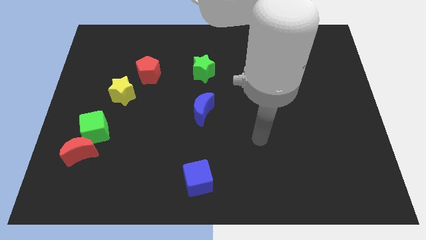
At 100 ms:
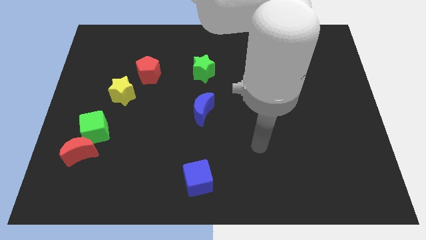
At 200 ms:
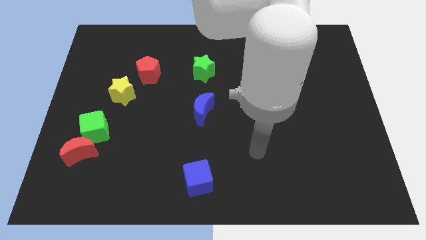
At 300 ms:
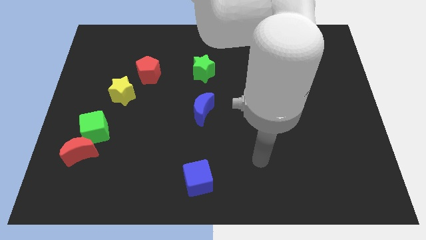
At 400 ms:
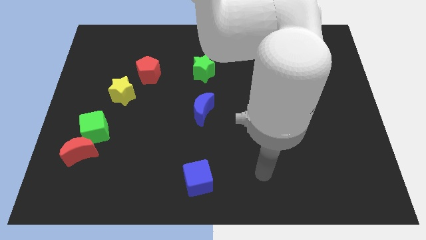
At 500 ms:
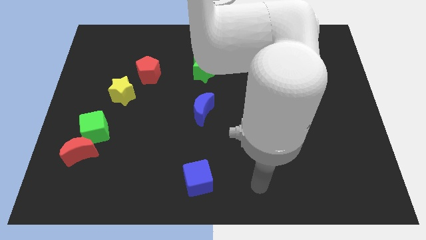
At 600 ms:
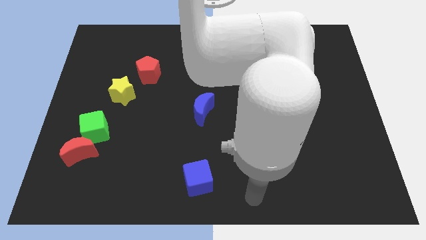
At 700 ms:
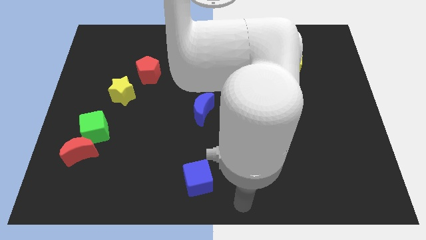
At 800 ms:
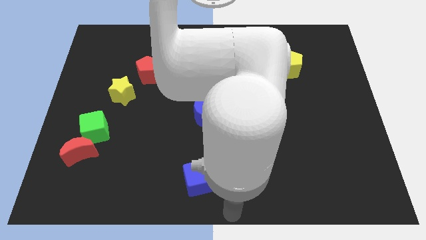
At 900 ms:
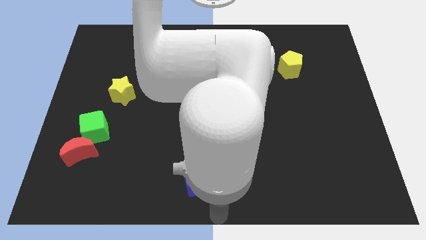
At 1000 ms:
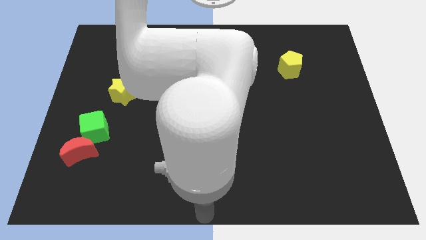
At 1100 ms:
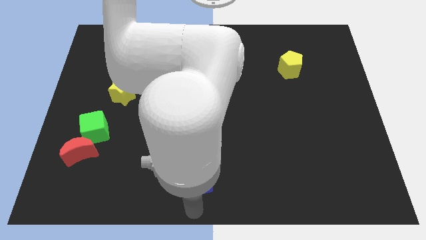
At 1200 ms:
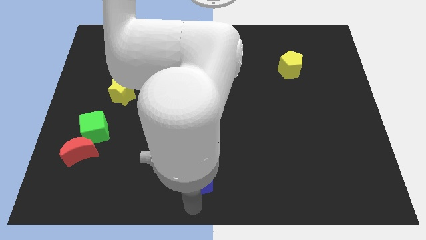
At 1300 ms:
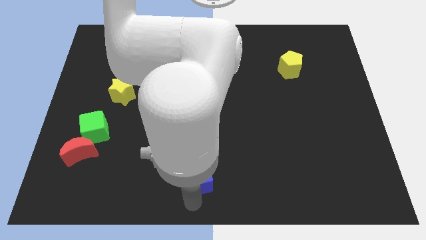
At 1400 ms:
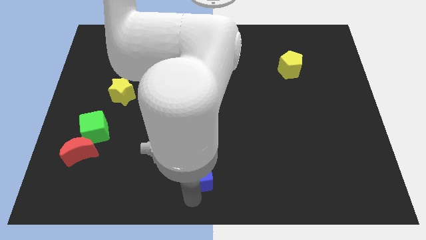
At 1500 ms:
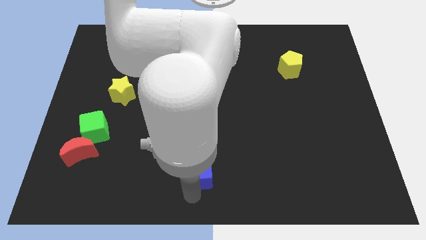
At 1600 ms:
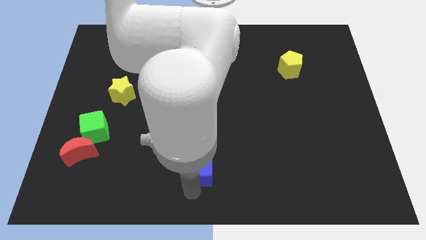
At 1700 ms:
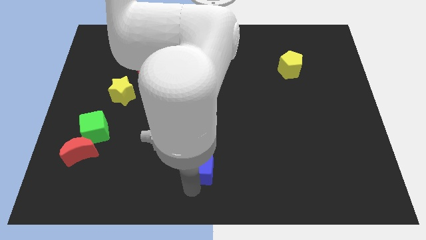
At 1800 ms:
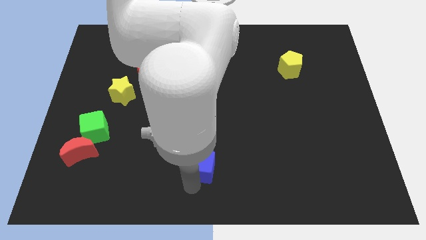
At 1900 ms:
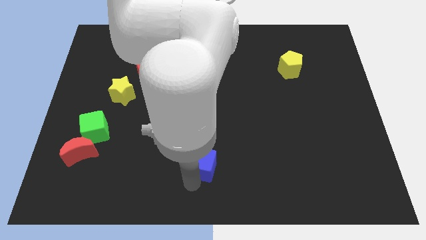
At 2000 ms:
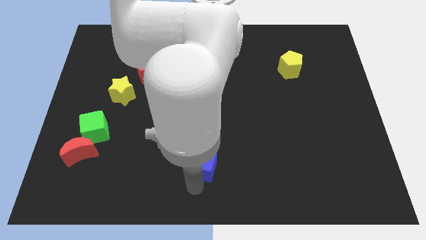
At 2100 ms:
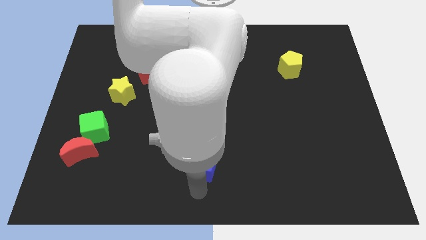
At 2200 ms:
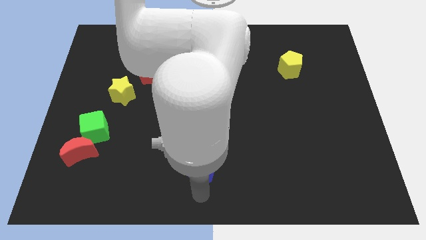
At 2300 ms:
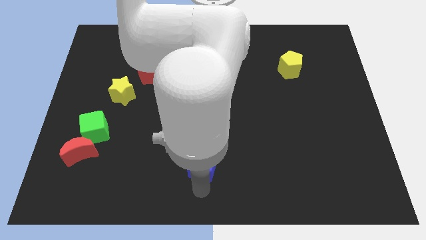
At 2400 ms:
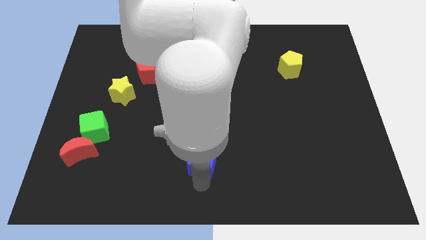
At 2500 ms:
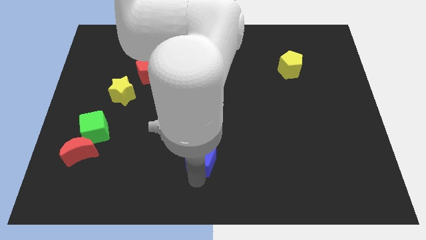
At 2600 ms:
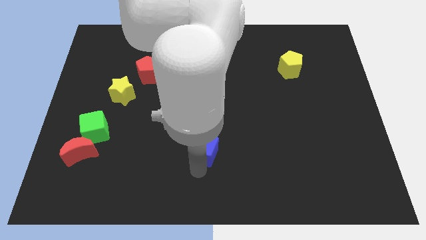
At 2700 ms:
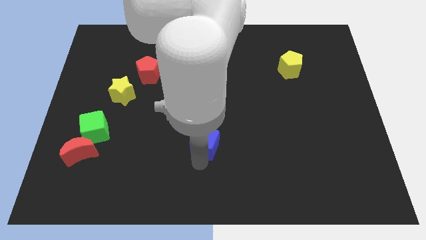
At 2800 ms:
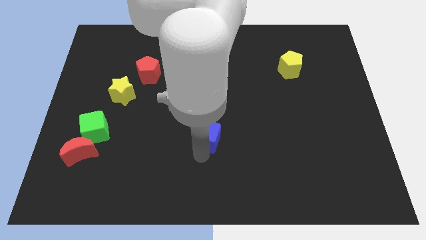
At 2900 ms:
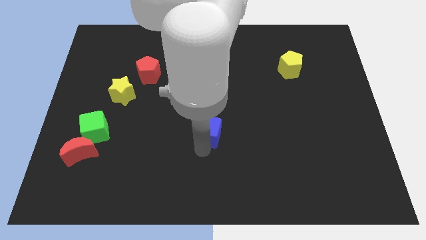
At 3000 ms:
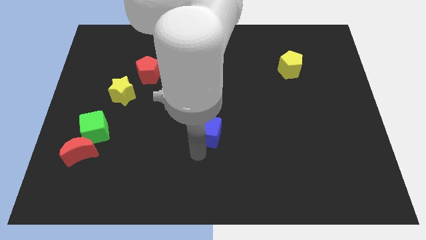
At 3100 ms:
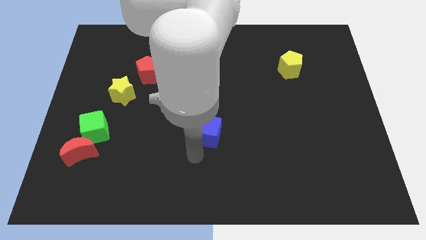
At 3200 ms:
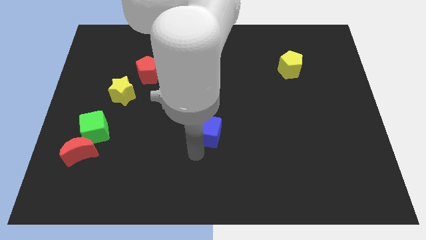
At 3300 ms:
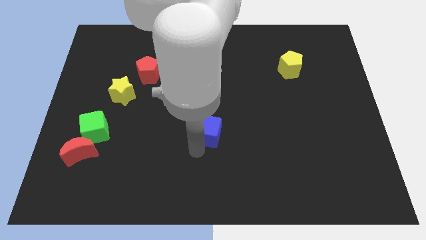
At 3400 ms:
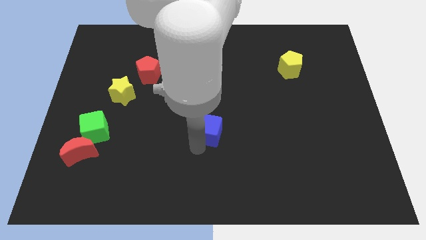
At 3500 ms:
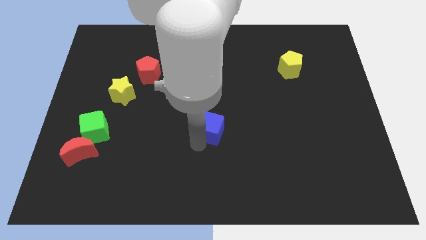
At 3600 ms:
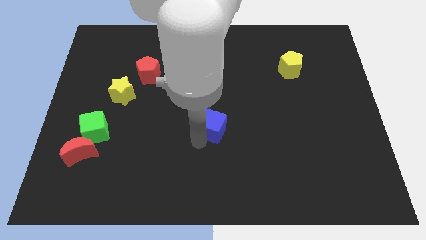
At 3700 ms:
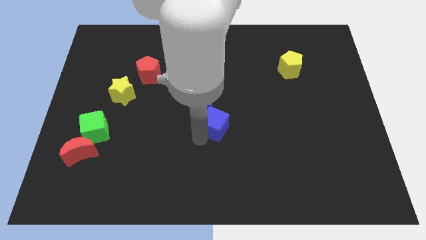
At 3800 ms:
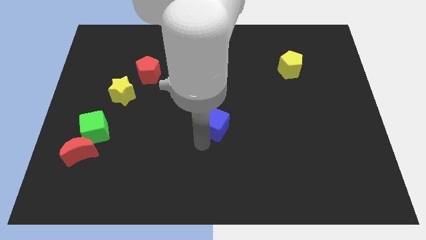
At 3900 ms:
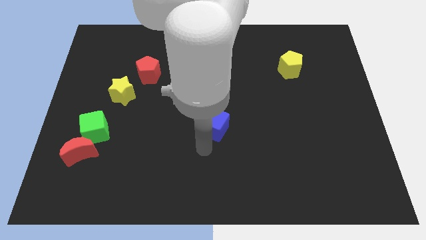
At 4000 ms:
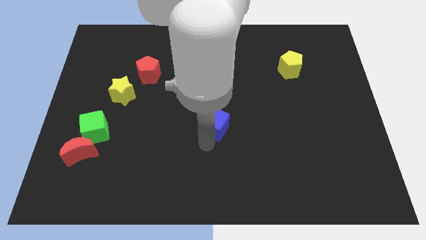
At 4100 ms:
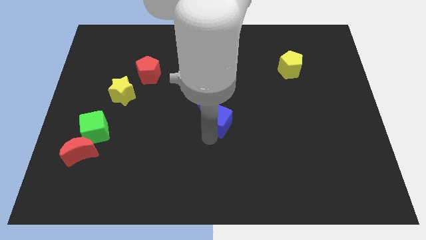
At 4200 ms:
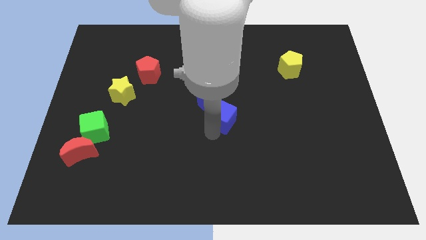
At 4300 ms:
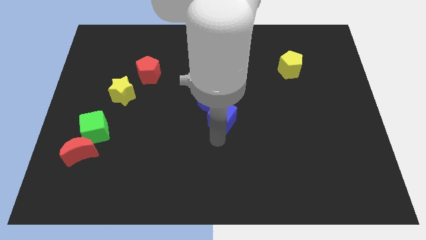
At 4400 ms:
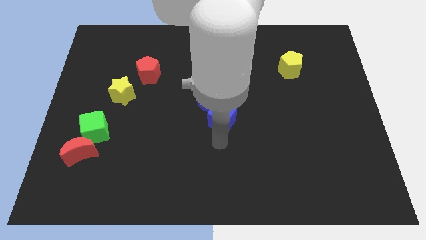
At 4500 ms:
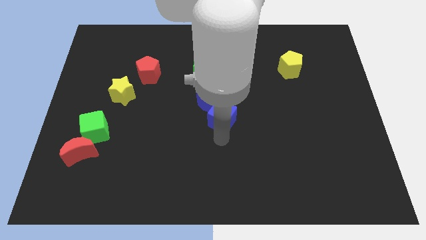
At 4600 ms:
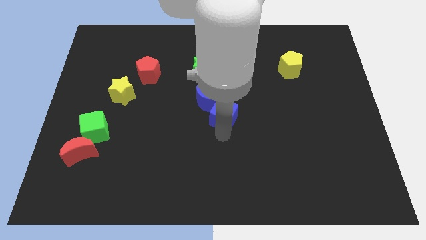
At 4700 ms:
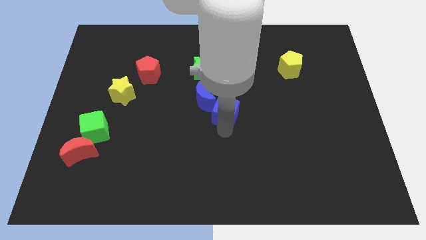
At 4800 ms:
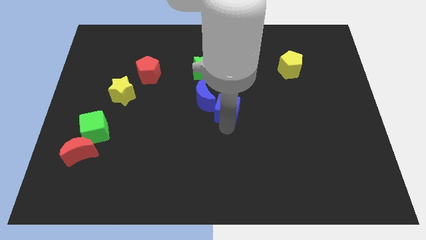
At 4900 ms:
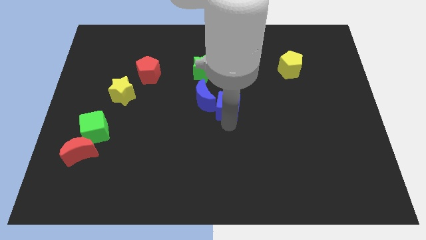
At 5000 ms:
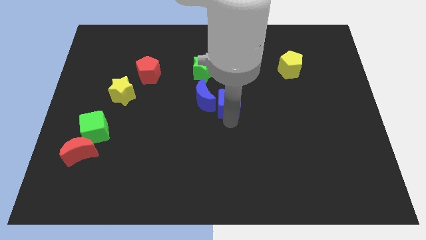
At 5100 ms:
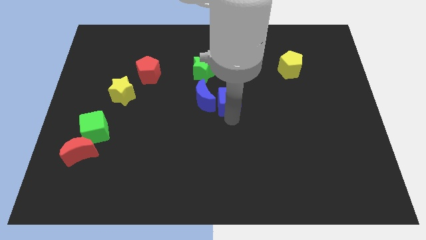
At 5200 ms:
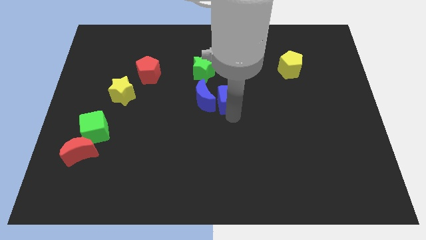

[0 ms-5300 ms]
slide the blue cube to the top right of the blue moon

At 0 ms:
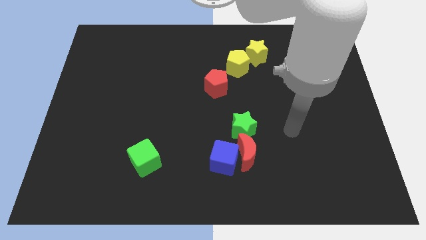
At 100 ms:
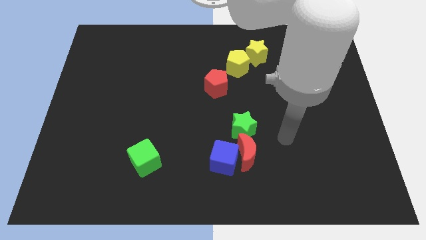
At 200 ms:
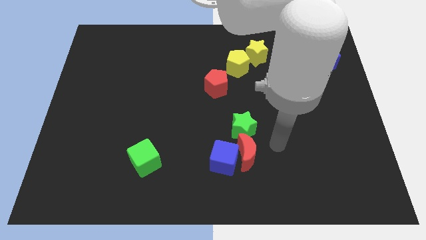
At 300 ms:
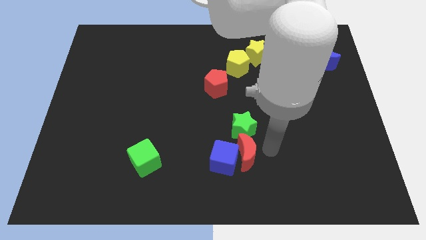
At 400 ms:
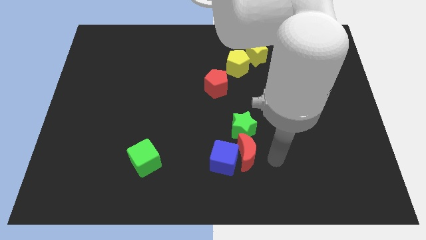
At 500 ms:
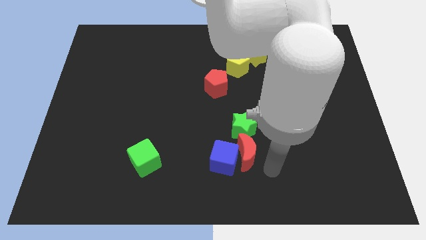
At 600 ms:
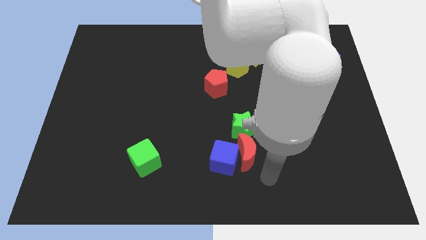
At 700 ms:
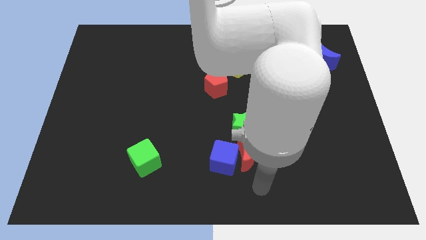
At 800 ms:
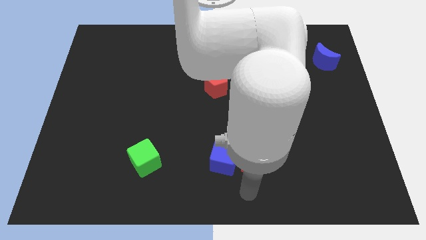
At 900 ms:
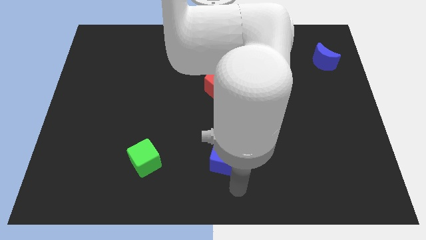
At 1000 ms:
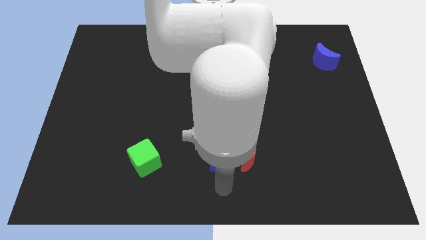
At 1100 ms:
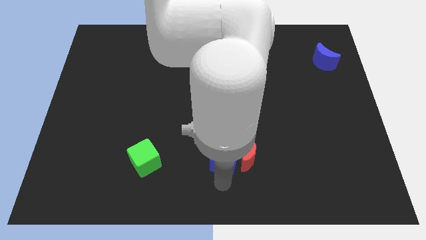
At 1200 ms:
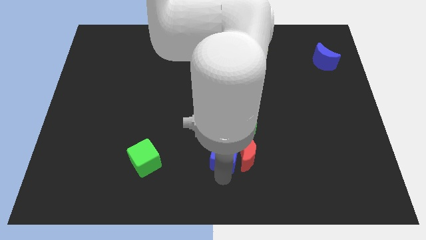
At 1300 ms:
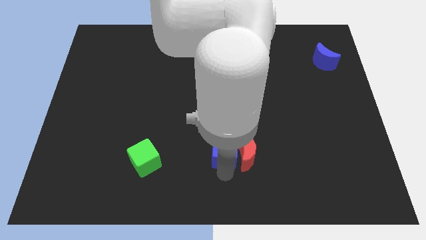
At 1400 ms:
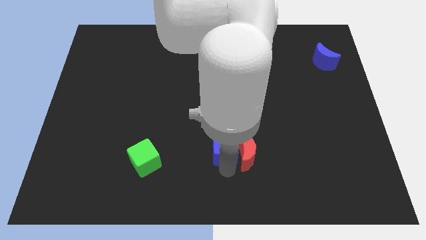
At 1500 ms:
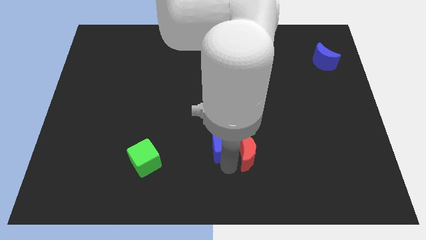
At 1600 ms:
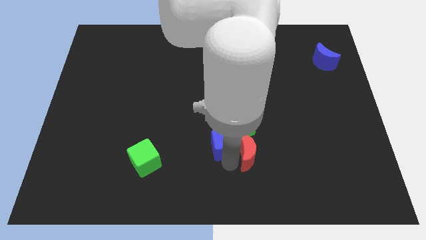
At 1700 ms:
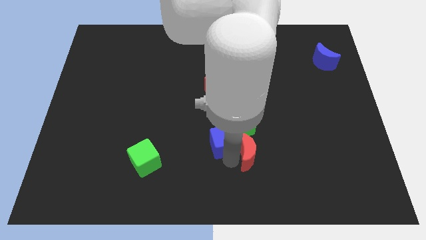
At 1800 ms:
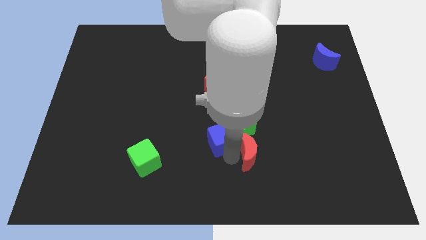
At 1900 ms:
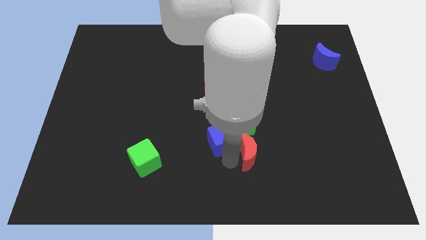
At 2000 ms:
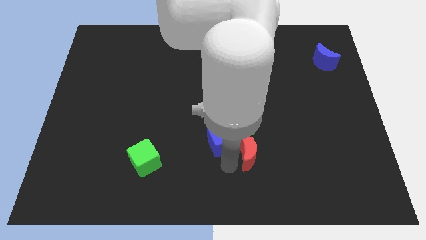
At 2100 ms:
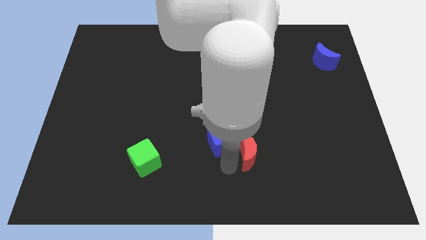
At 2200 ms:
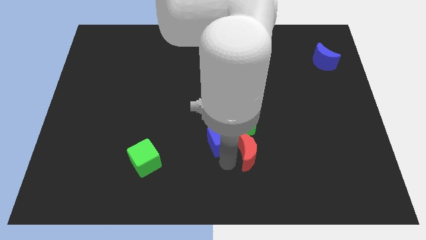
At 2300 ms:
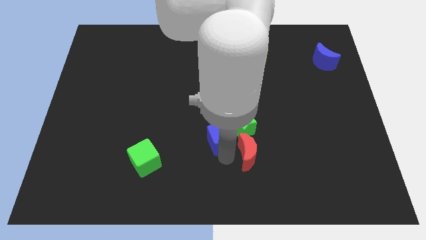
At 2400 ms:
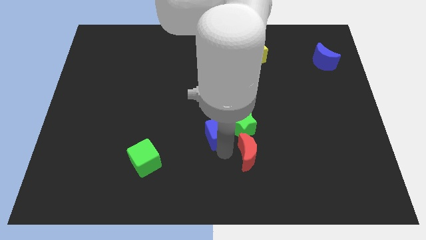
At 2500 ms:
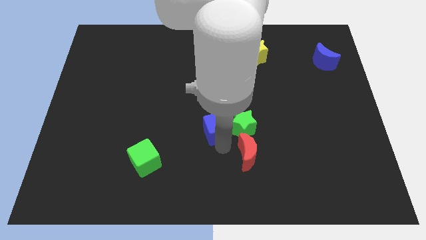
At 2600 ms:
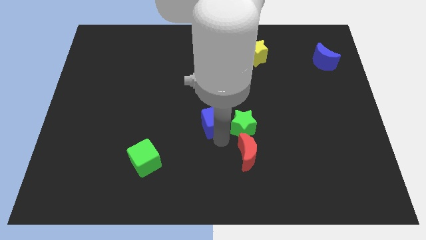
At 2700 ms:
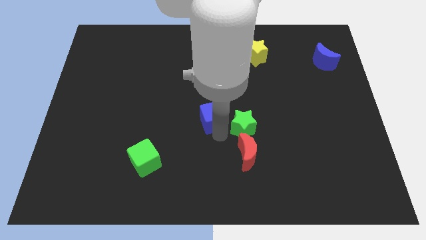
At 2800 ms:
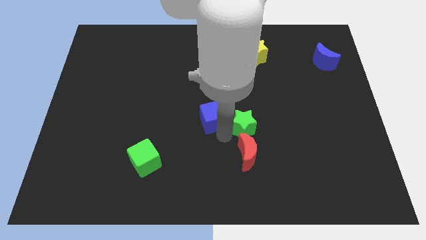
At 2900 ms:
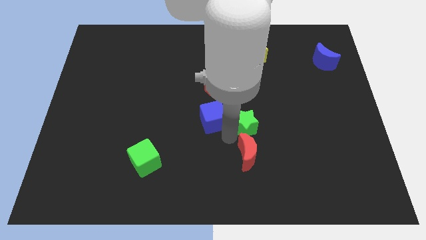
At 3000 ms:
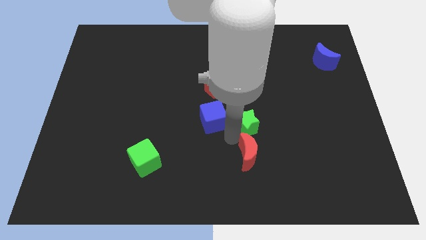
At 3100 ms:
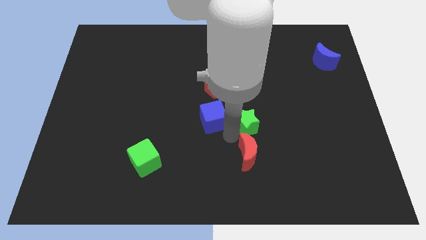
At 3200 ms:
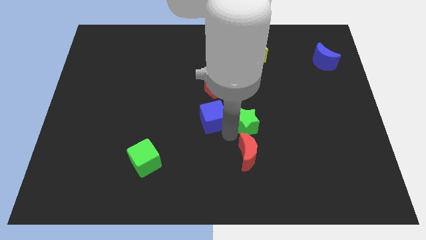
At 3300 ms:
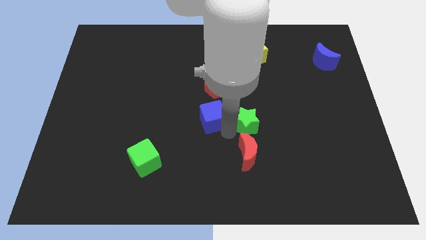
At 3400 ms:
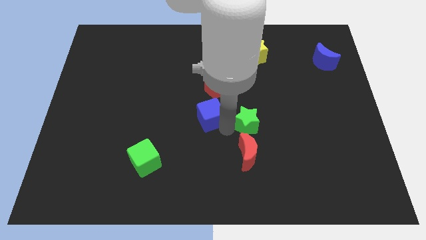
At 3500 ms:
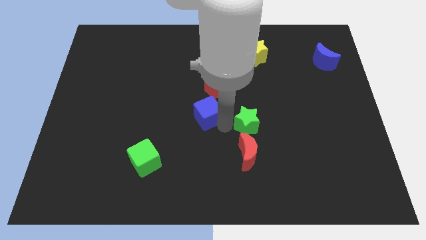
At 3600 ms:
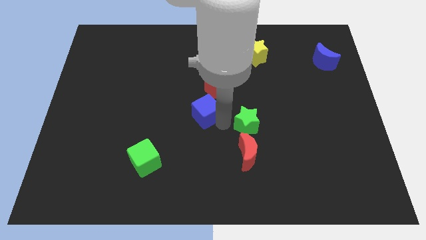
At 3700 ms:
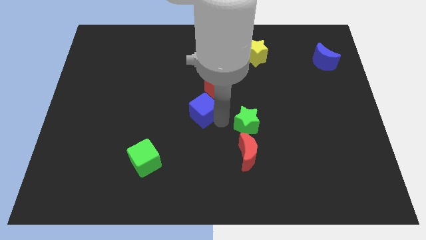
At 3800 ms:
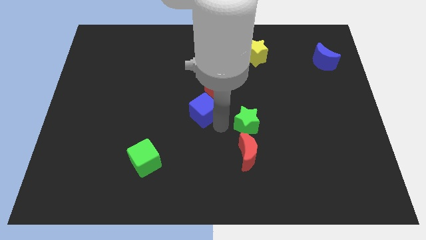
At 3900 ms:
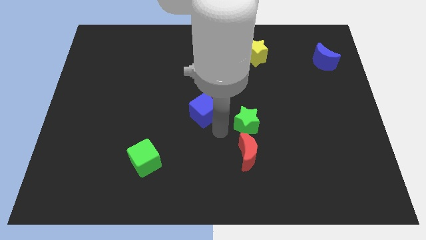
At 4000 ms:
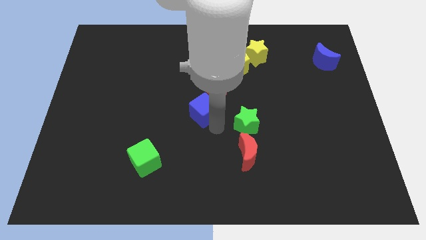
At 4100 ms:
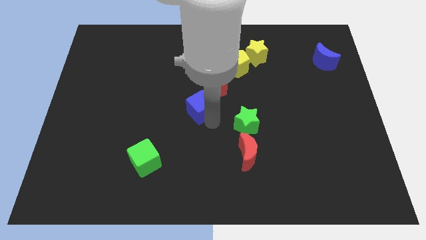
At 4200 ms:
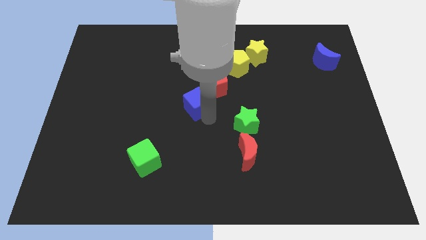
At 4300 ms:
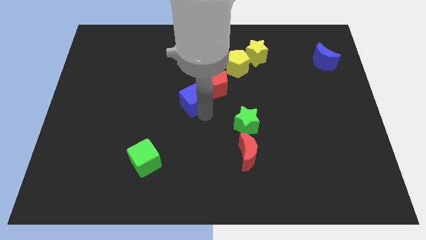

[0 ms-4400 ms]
put the blue cube just left of the red pentagon
